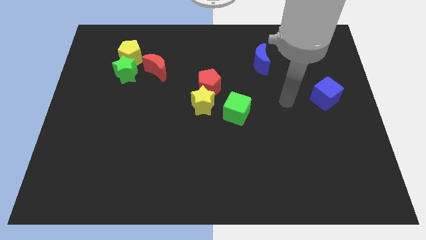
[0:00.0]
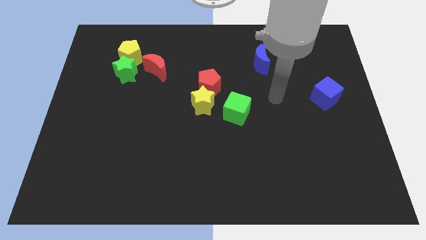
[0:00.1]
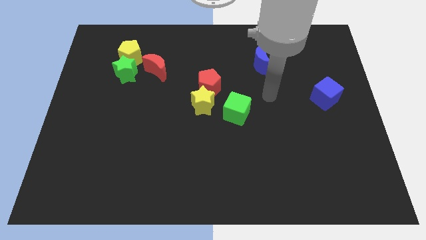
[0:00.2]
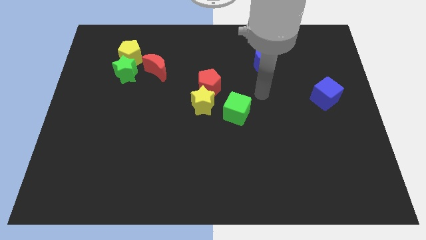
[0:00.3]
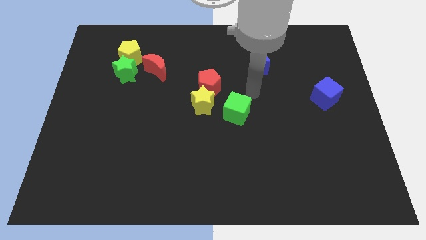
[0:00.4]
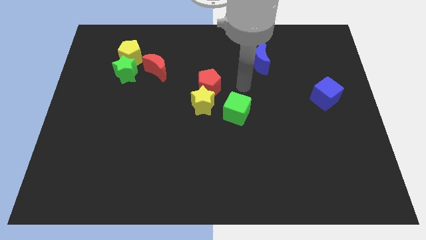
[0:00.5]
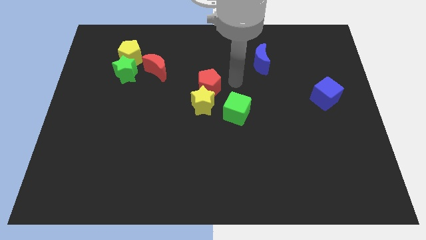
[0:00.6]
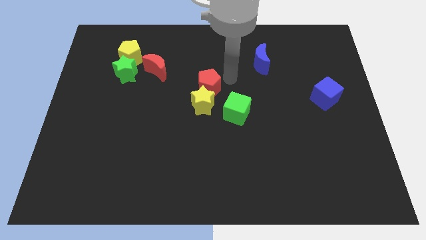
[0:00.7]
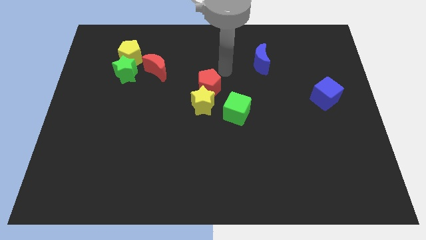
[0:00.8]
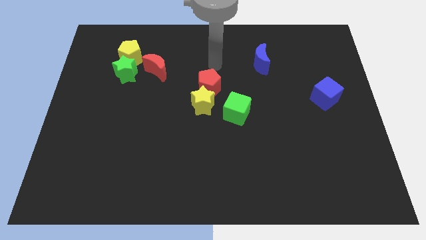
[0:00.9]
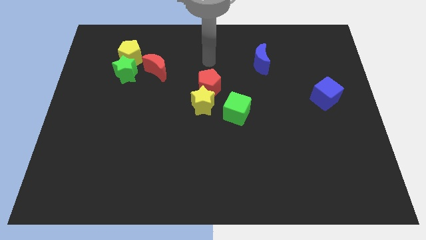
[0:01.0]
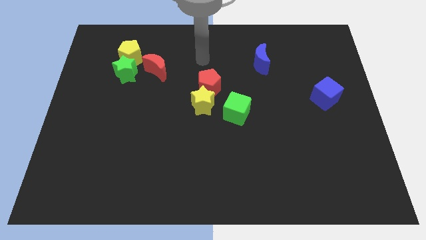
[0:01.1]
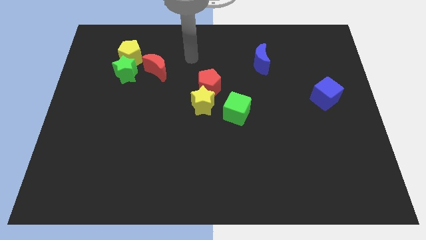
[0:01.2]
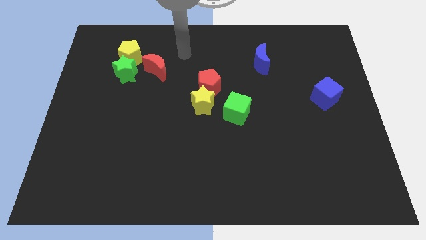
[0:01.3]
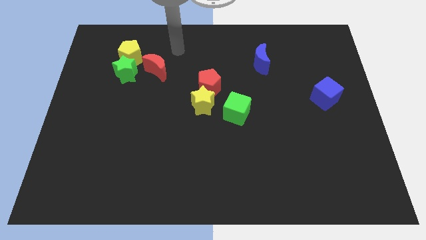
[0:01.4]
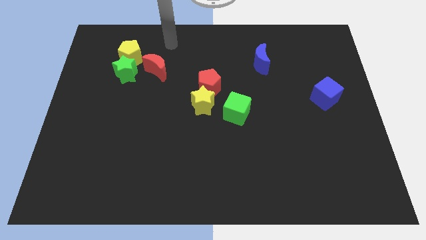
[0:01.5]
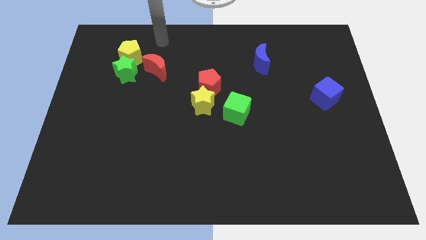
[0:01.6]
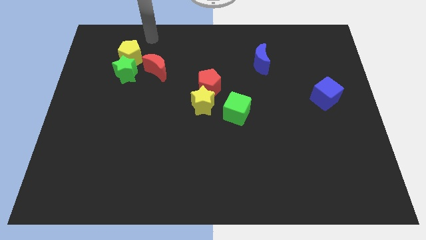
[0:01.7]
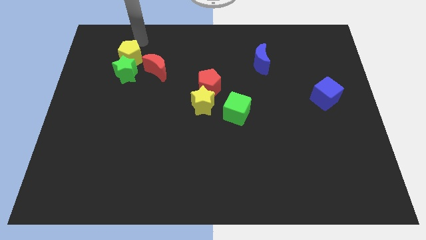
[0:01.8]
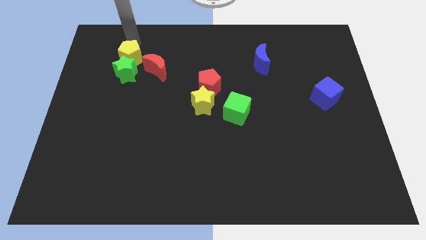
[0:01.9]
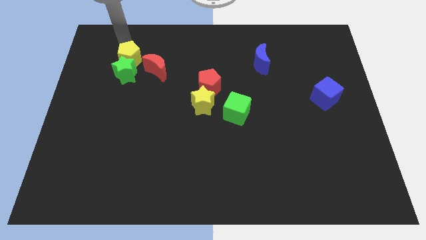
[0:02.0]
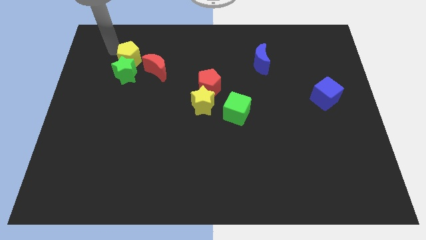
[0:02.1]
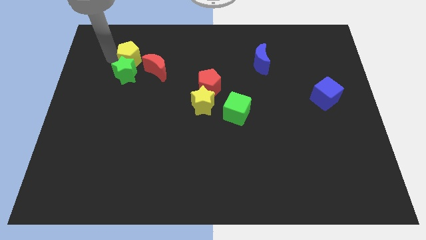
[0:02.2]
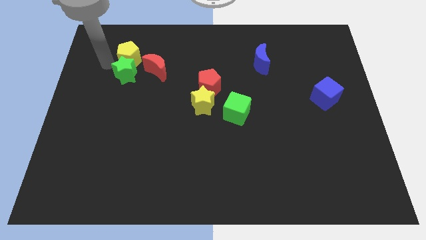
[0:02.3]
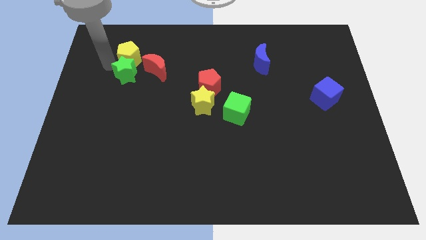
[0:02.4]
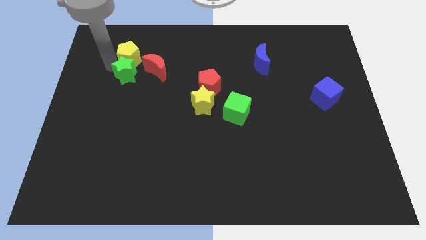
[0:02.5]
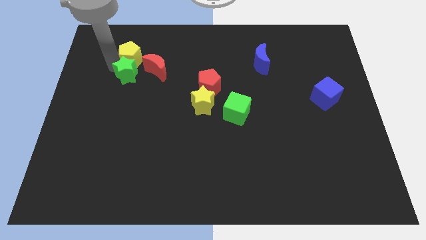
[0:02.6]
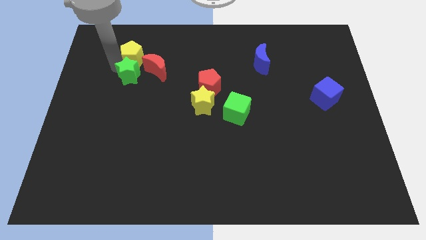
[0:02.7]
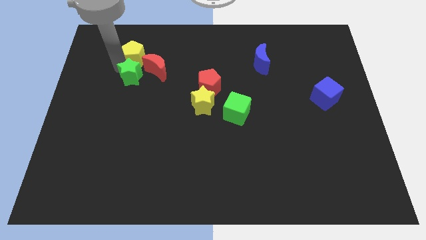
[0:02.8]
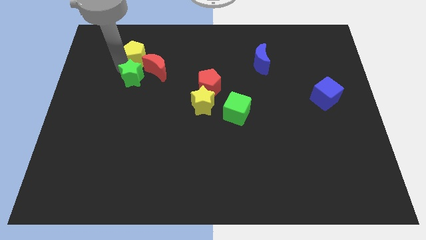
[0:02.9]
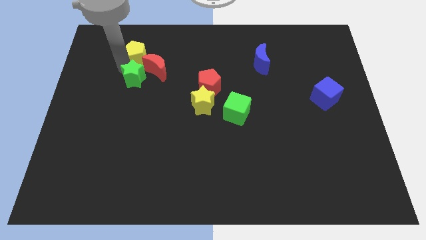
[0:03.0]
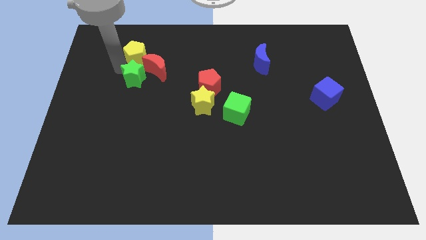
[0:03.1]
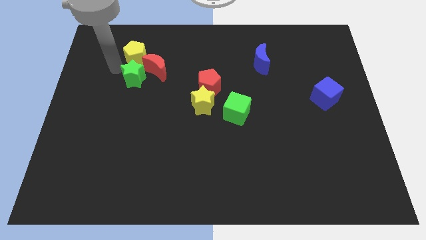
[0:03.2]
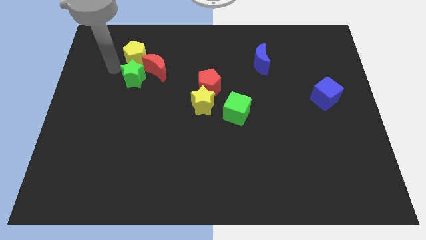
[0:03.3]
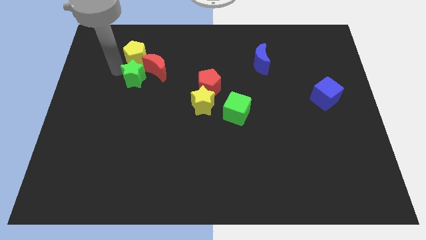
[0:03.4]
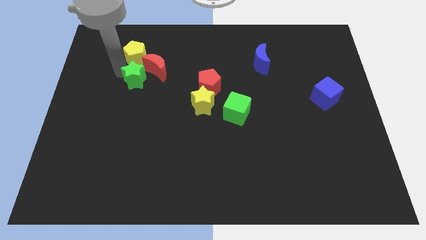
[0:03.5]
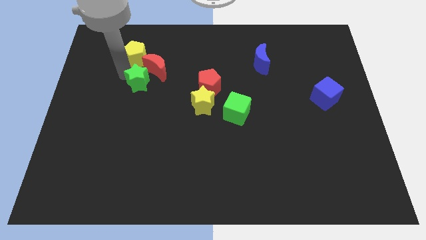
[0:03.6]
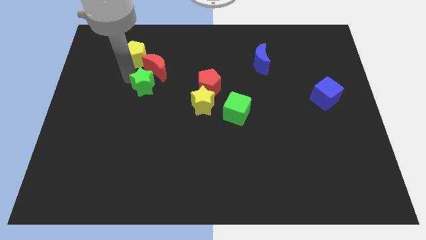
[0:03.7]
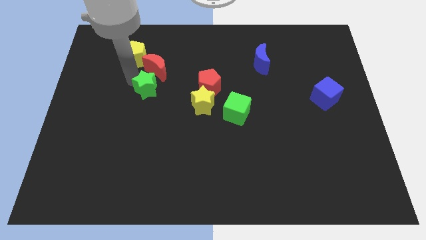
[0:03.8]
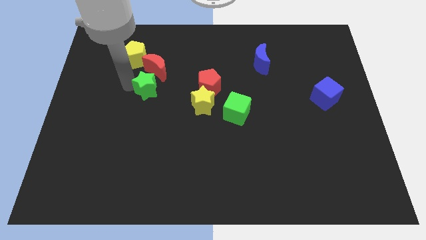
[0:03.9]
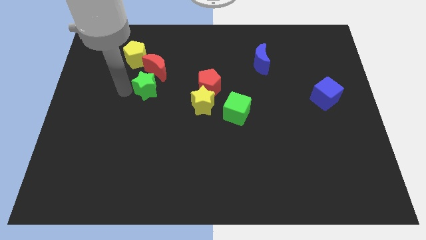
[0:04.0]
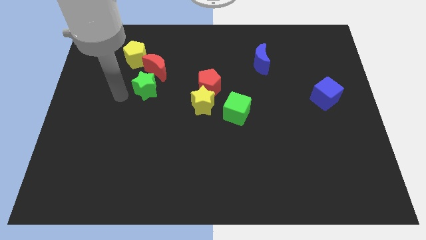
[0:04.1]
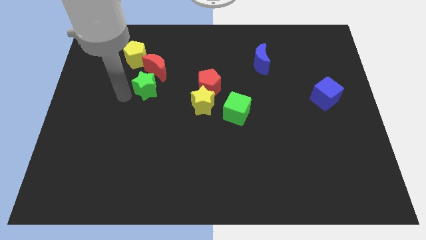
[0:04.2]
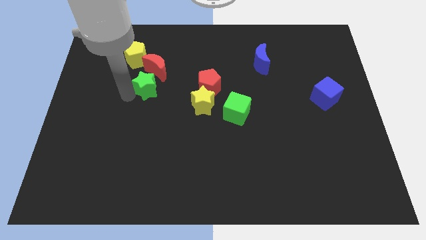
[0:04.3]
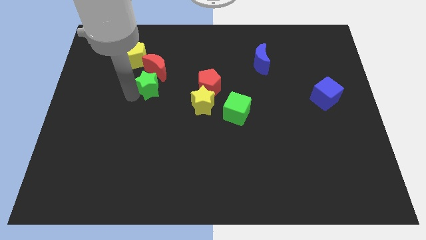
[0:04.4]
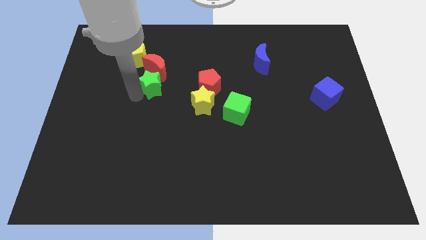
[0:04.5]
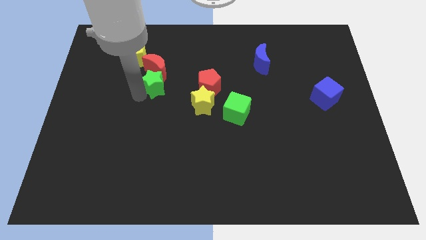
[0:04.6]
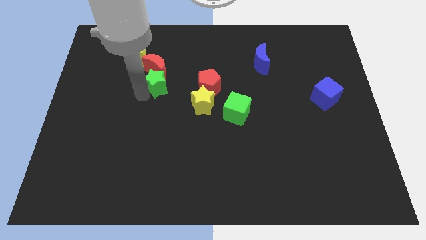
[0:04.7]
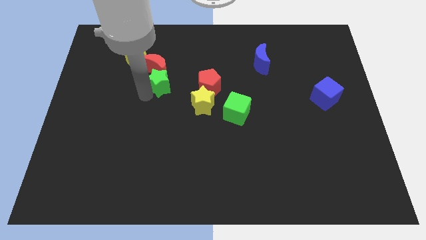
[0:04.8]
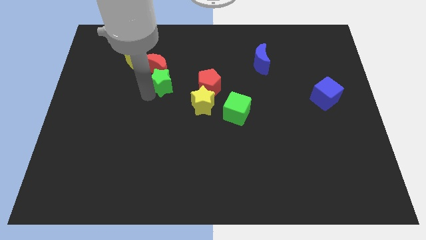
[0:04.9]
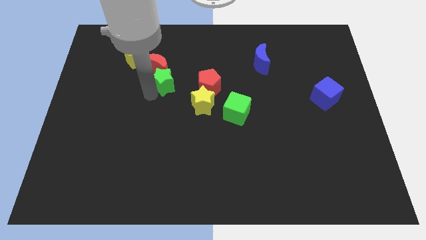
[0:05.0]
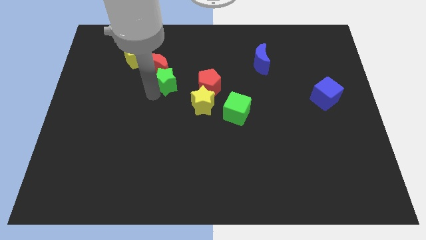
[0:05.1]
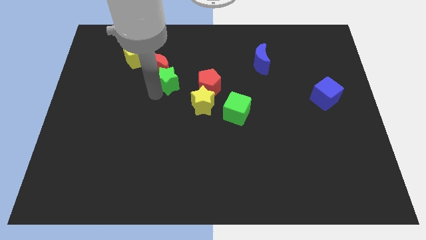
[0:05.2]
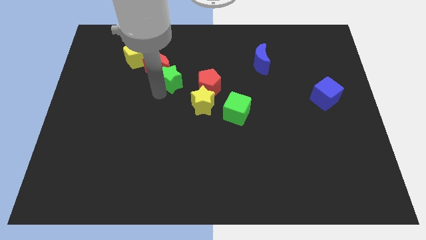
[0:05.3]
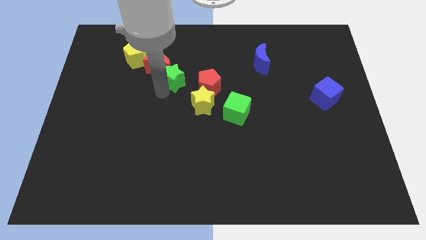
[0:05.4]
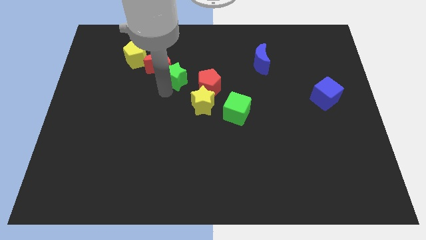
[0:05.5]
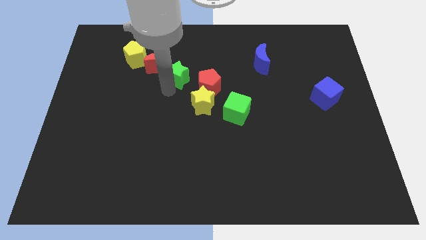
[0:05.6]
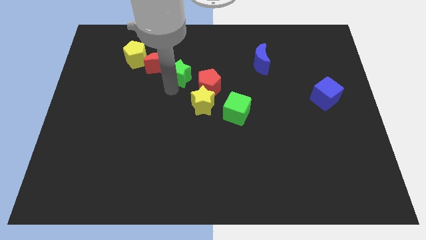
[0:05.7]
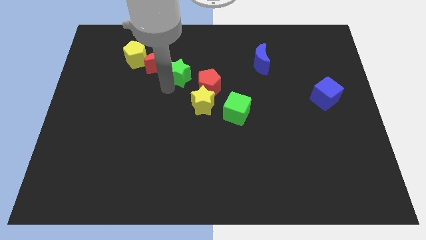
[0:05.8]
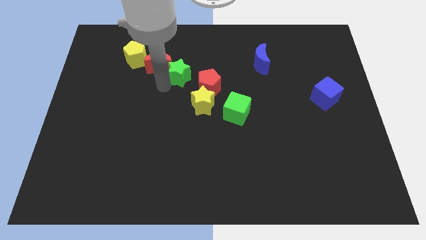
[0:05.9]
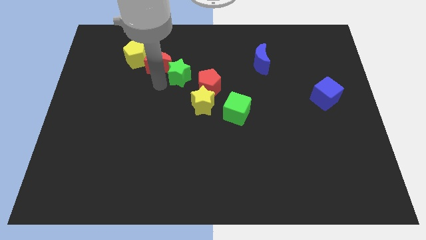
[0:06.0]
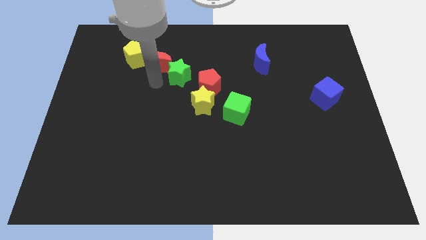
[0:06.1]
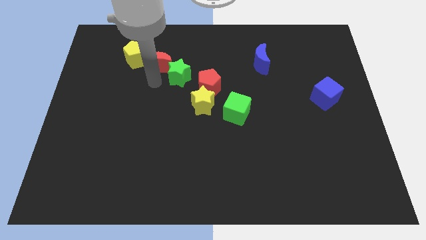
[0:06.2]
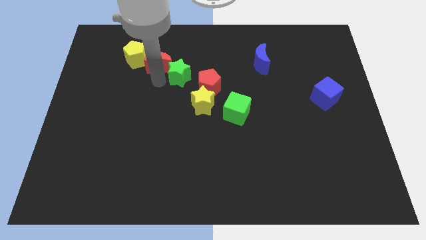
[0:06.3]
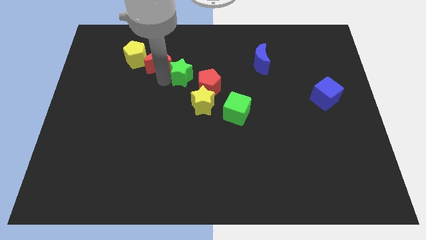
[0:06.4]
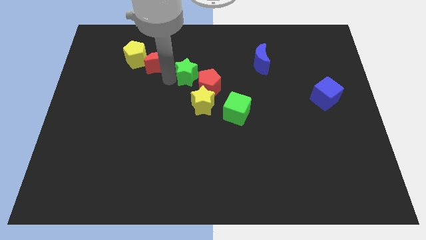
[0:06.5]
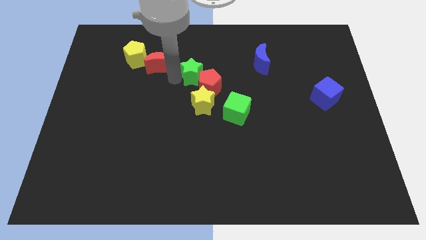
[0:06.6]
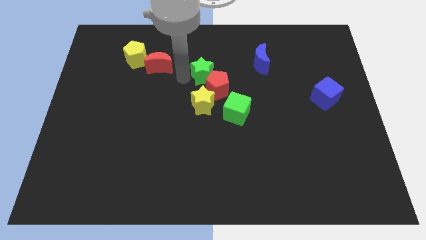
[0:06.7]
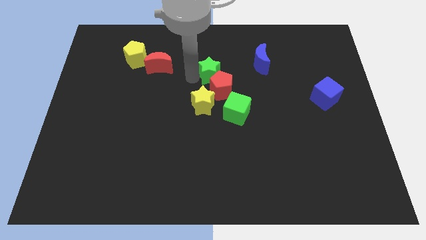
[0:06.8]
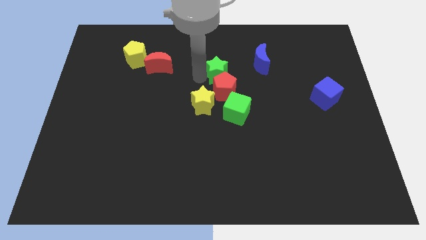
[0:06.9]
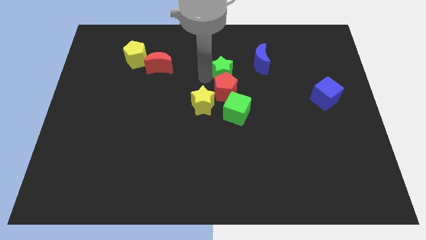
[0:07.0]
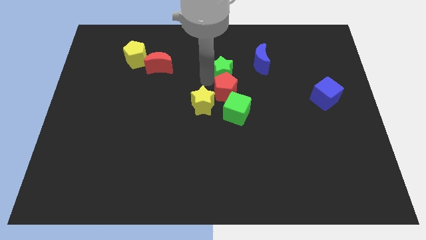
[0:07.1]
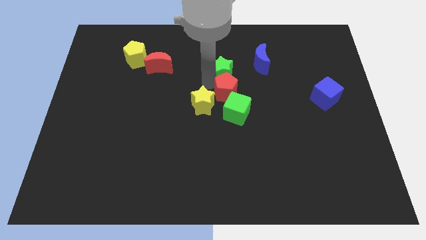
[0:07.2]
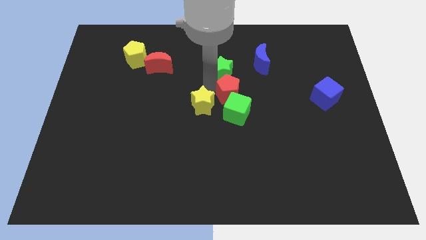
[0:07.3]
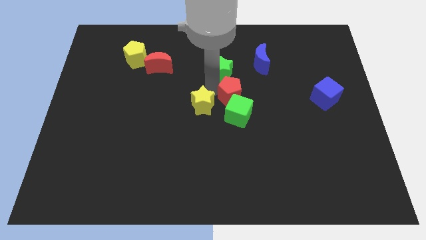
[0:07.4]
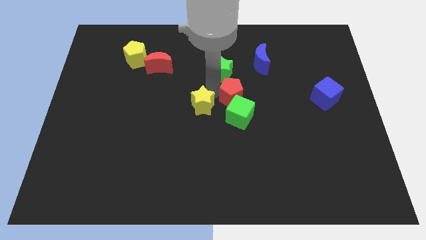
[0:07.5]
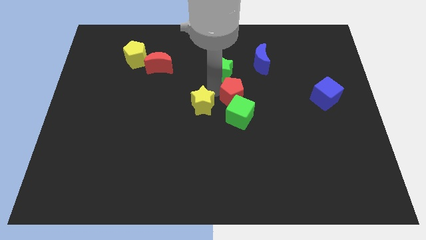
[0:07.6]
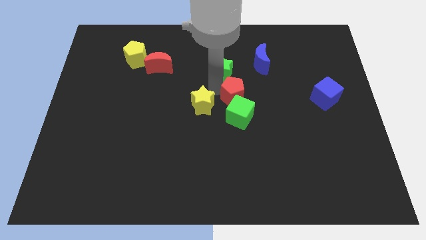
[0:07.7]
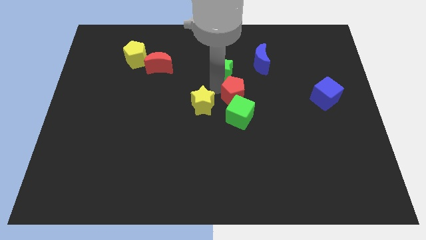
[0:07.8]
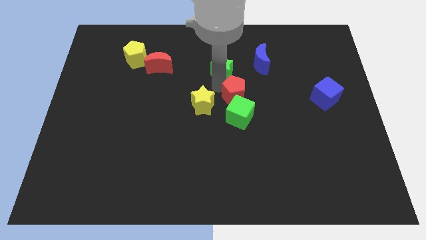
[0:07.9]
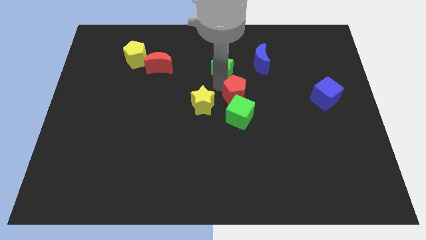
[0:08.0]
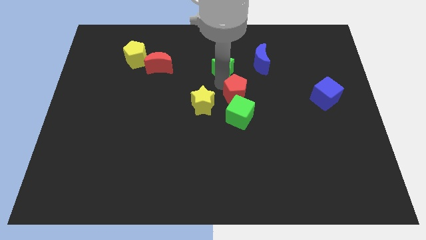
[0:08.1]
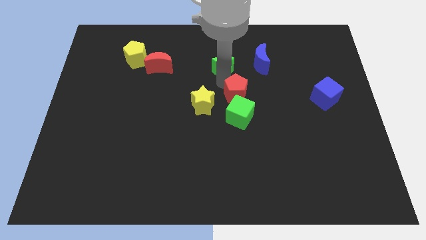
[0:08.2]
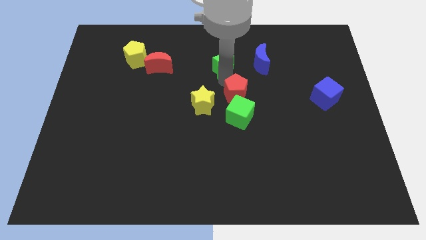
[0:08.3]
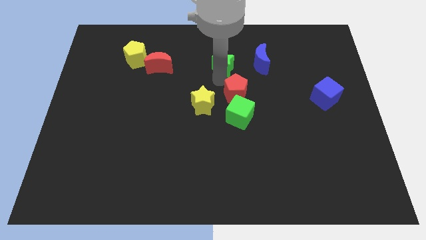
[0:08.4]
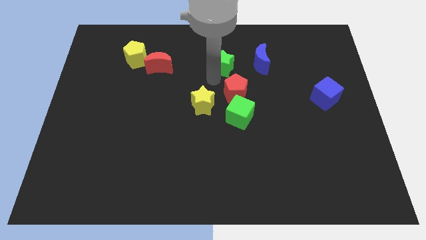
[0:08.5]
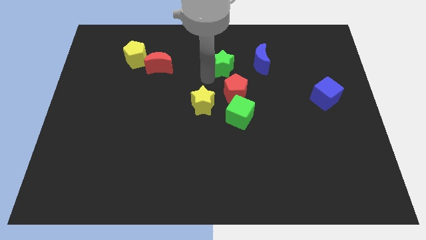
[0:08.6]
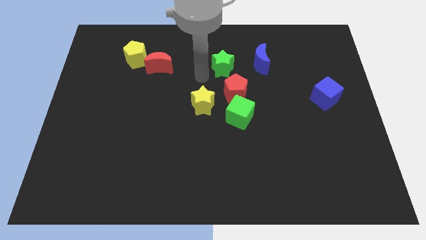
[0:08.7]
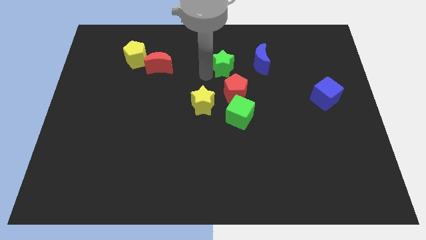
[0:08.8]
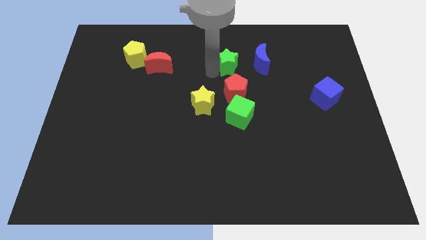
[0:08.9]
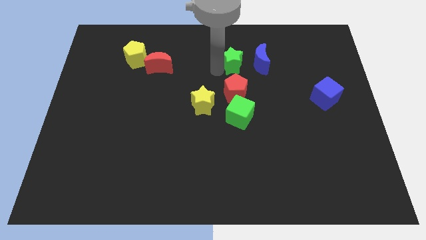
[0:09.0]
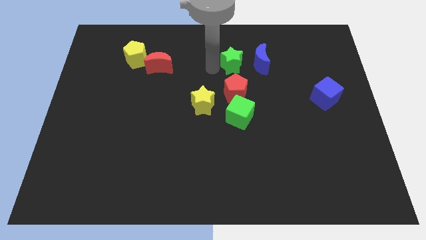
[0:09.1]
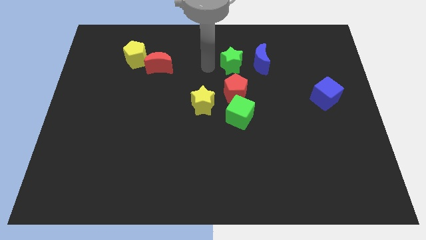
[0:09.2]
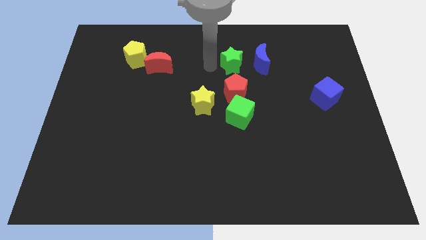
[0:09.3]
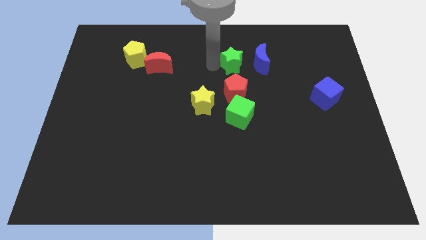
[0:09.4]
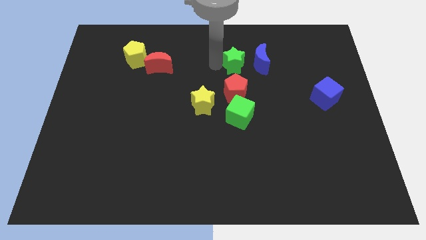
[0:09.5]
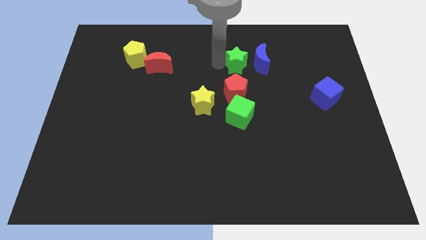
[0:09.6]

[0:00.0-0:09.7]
move the green star next to the blue moon
